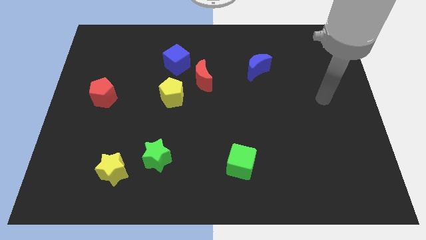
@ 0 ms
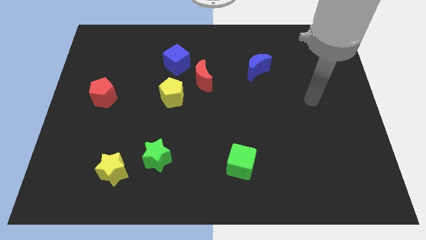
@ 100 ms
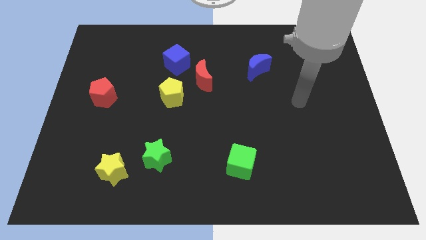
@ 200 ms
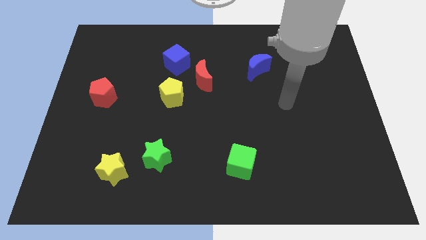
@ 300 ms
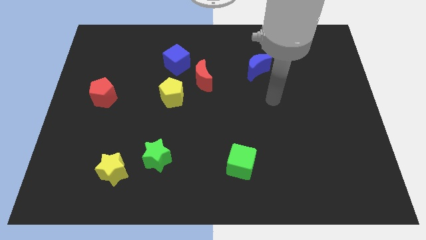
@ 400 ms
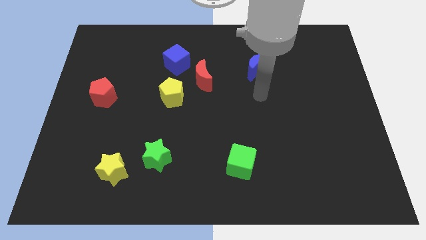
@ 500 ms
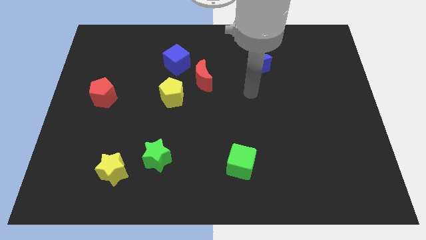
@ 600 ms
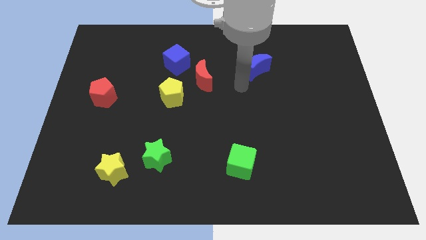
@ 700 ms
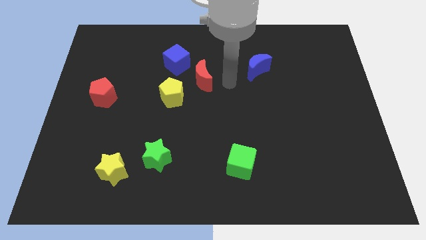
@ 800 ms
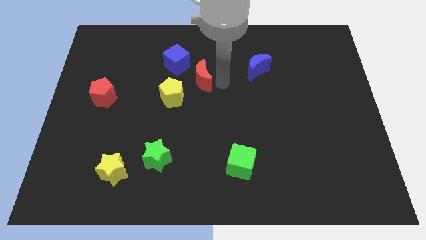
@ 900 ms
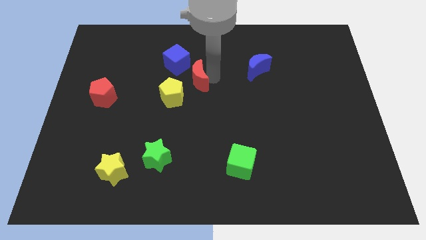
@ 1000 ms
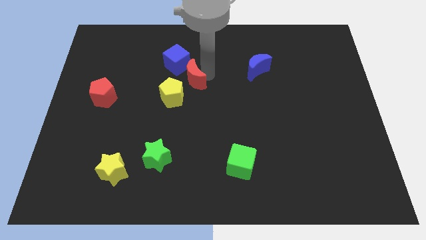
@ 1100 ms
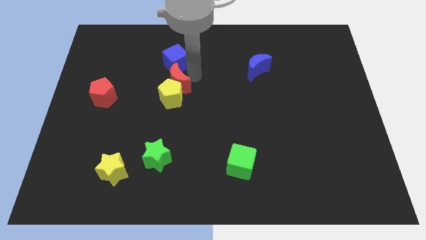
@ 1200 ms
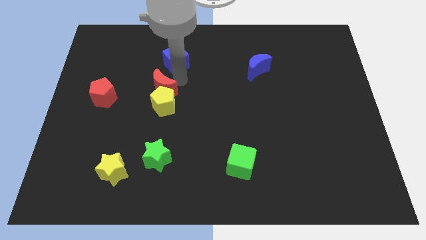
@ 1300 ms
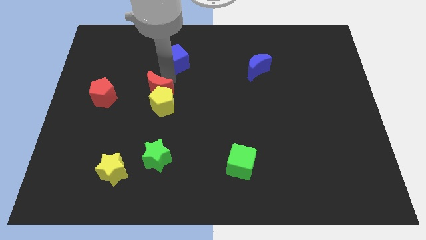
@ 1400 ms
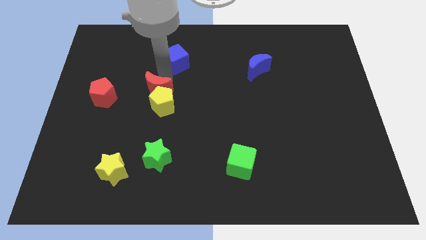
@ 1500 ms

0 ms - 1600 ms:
pull the blue cube apart from the red moon

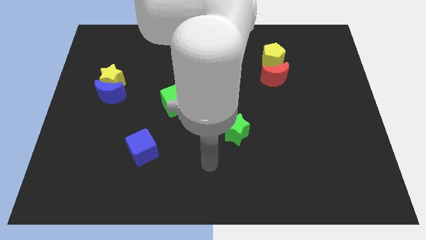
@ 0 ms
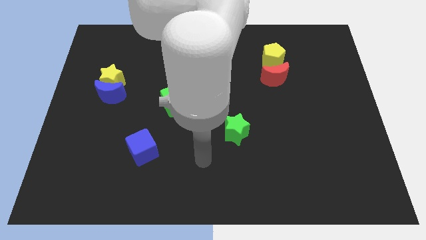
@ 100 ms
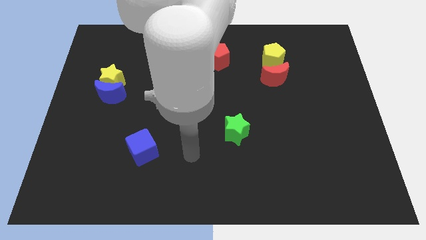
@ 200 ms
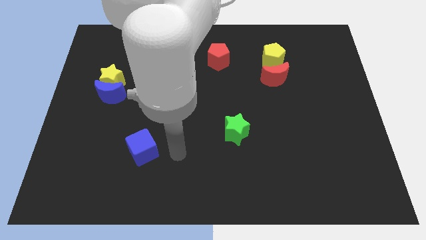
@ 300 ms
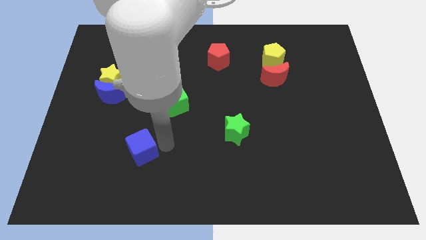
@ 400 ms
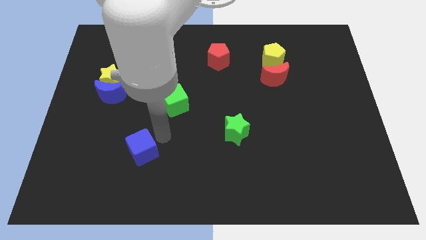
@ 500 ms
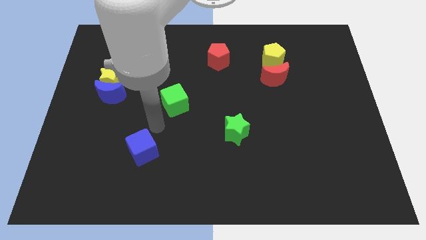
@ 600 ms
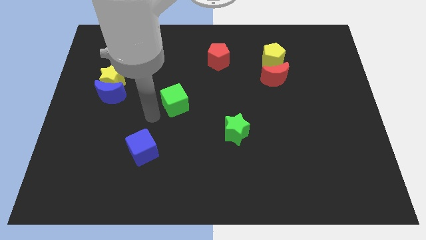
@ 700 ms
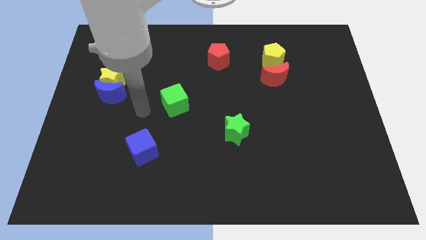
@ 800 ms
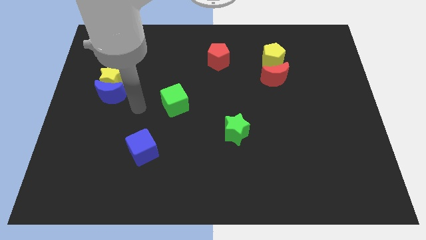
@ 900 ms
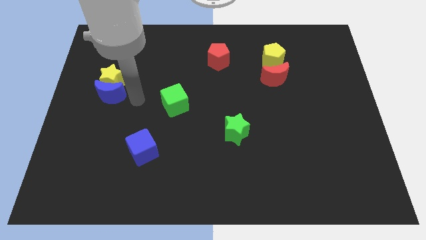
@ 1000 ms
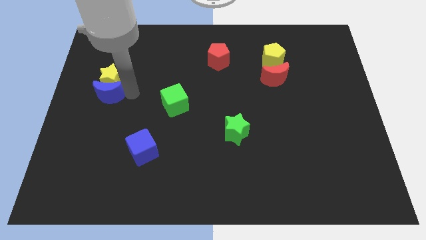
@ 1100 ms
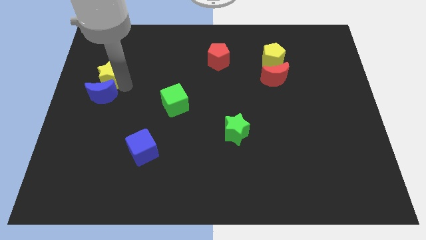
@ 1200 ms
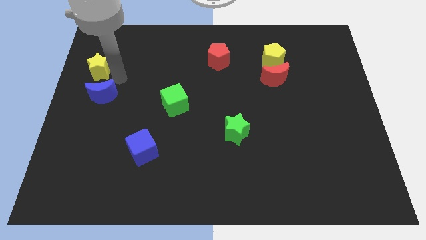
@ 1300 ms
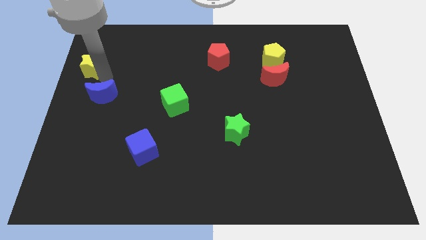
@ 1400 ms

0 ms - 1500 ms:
separate the blue moon from the yellow star

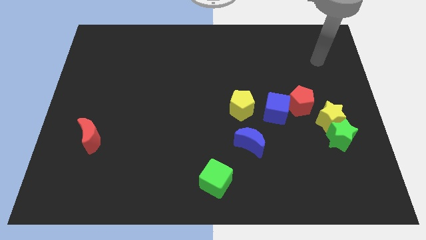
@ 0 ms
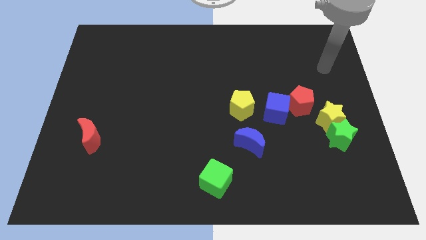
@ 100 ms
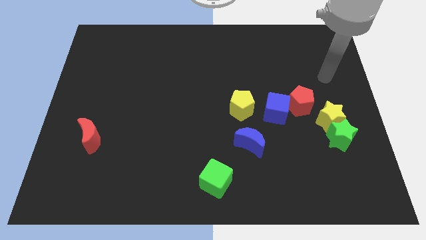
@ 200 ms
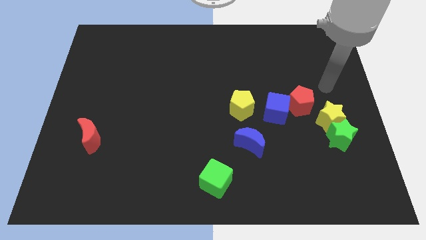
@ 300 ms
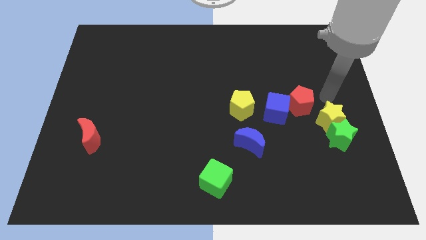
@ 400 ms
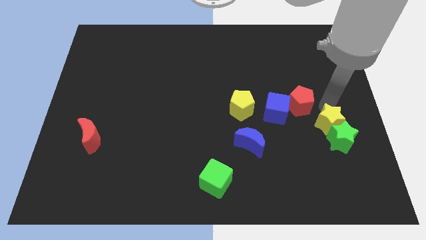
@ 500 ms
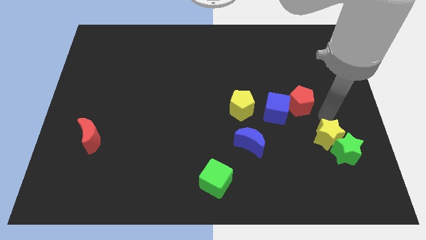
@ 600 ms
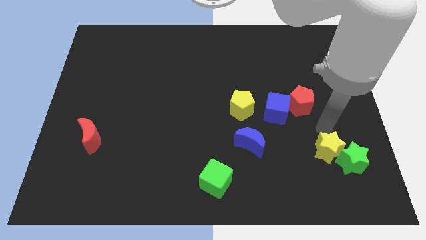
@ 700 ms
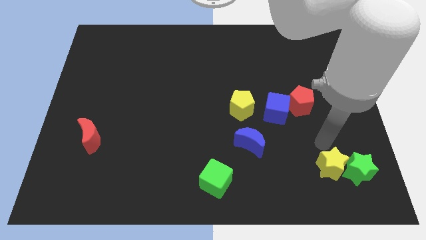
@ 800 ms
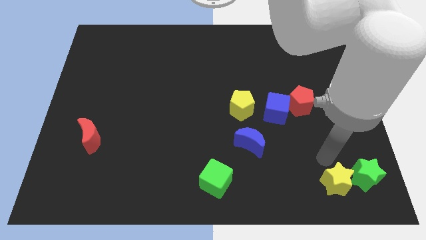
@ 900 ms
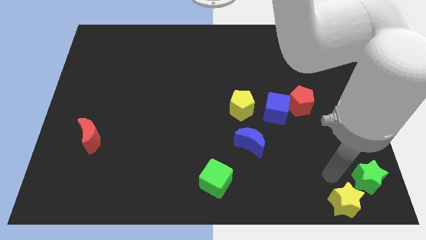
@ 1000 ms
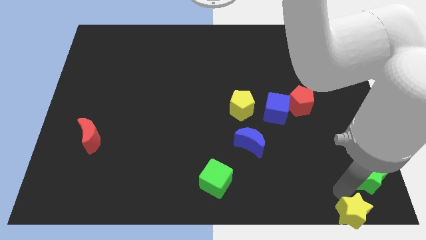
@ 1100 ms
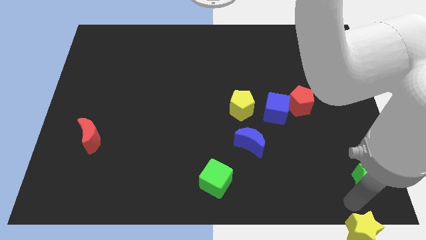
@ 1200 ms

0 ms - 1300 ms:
pull the green star apart from the yellow star

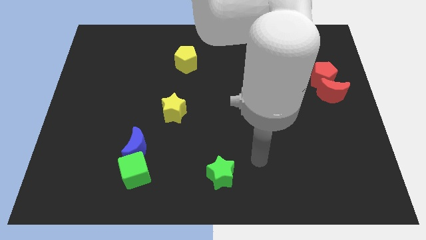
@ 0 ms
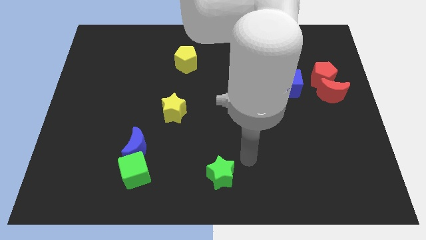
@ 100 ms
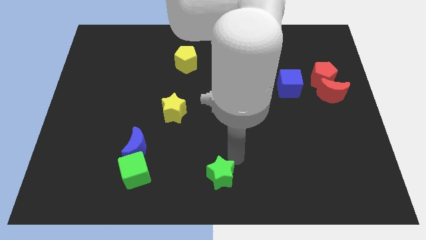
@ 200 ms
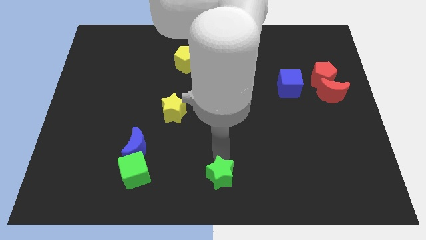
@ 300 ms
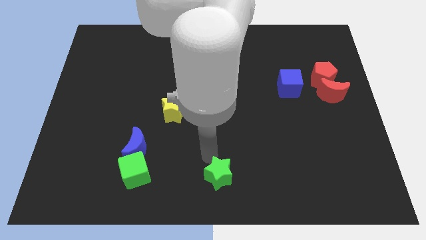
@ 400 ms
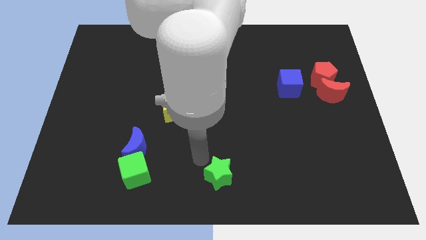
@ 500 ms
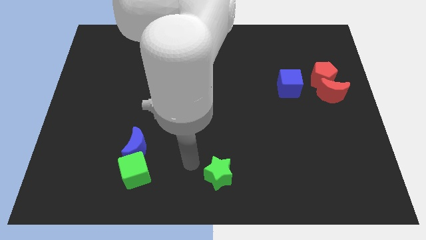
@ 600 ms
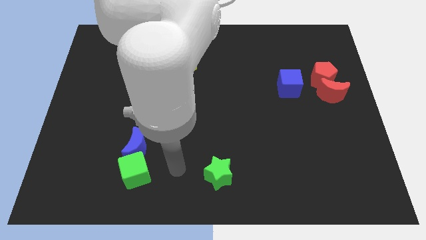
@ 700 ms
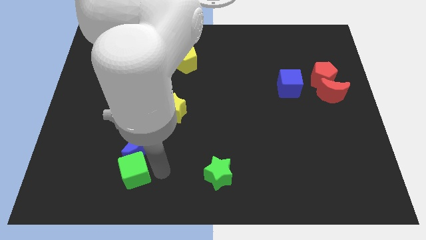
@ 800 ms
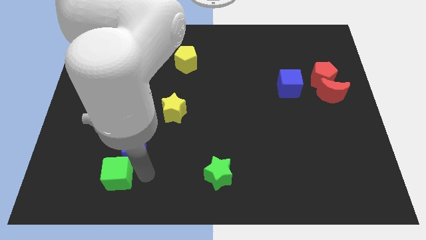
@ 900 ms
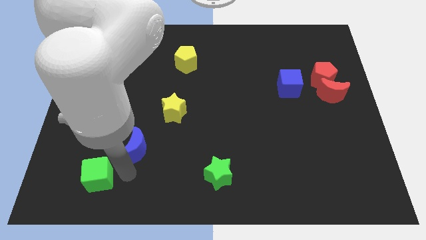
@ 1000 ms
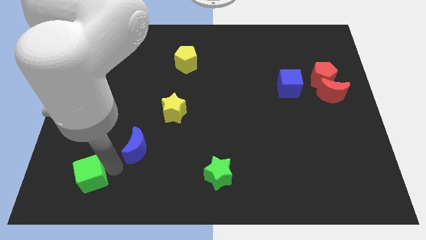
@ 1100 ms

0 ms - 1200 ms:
move the blue moon away from the green cube

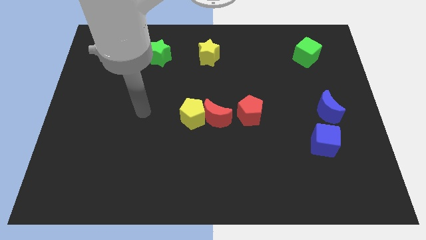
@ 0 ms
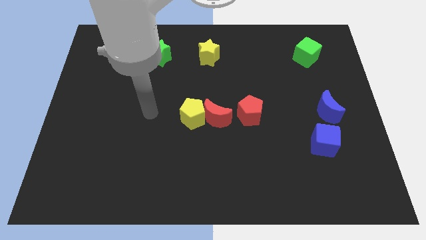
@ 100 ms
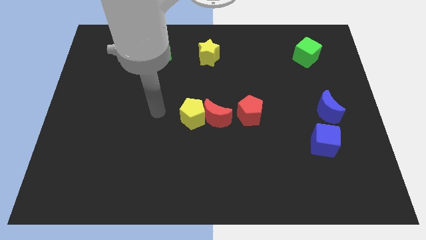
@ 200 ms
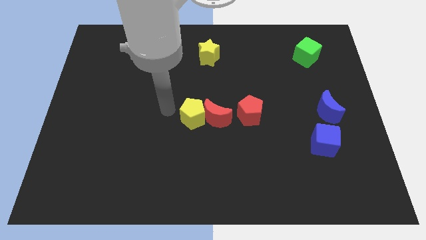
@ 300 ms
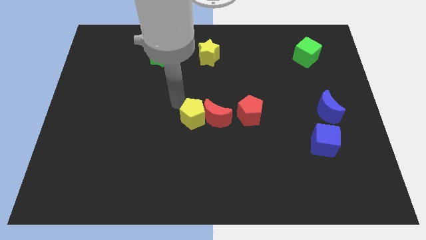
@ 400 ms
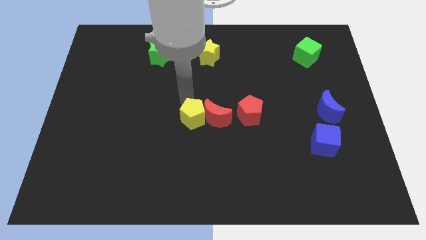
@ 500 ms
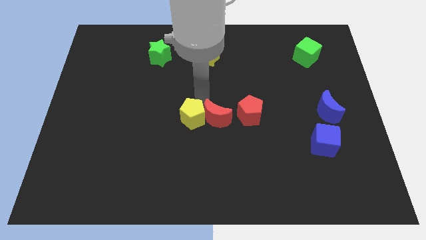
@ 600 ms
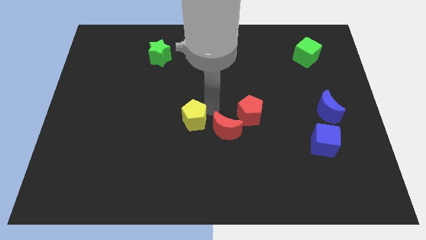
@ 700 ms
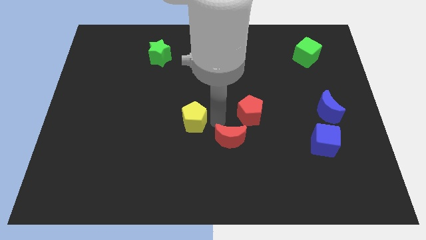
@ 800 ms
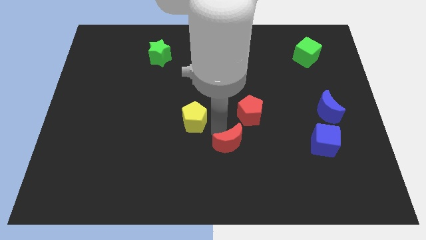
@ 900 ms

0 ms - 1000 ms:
separate the yellow pentagon from the red moon

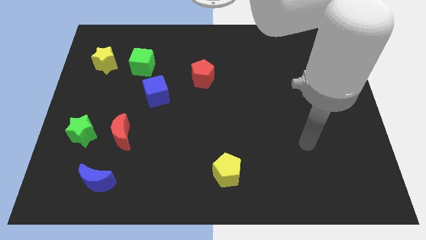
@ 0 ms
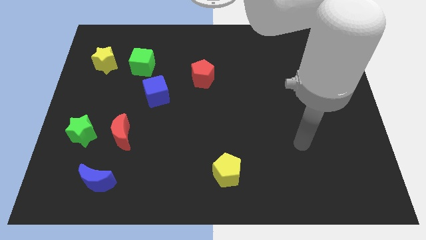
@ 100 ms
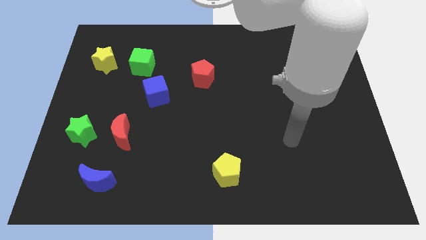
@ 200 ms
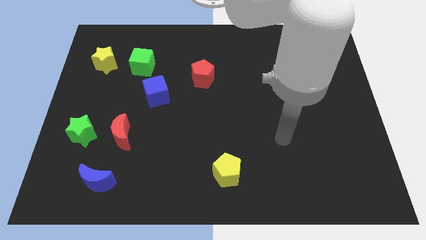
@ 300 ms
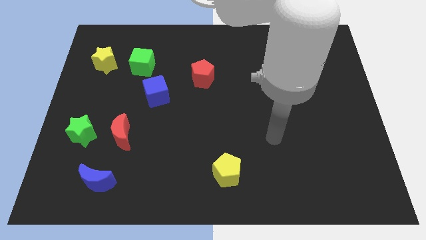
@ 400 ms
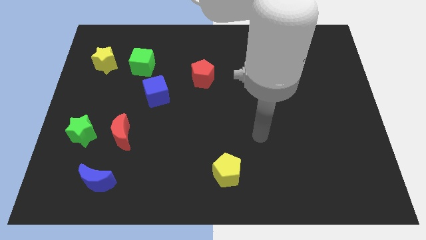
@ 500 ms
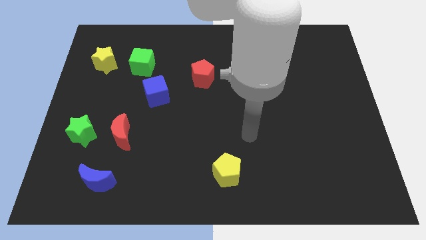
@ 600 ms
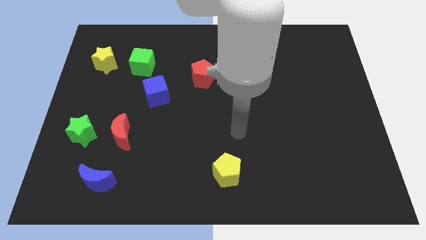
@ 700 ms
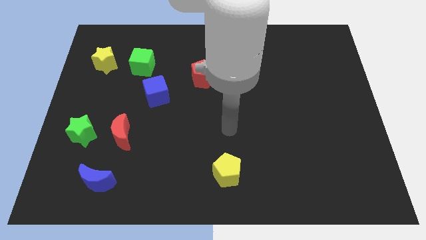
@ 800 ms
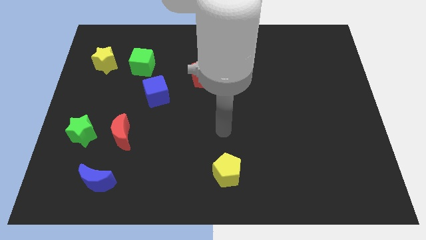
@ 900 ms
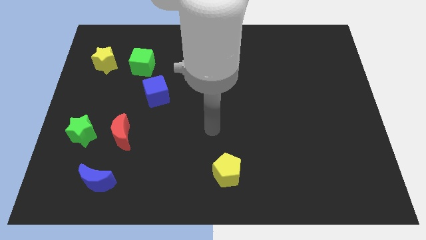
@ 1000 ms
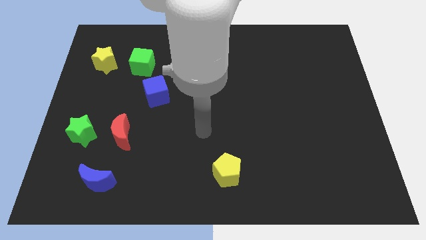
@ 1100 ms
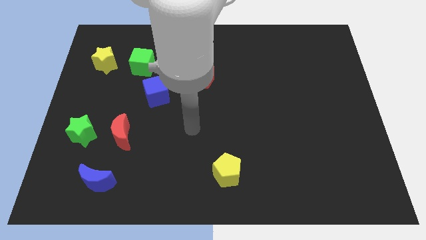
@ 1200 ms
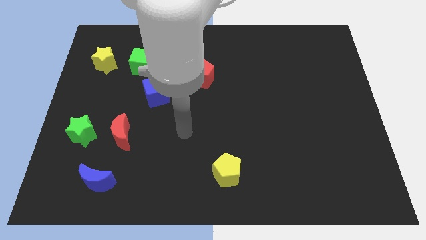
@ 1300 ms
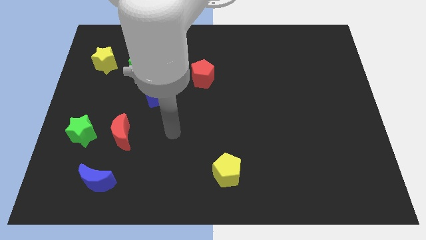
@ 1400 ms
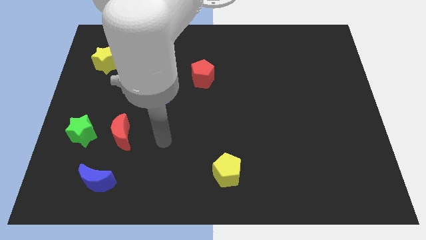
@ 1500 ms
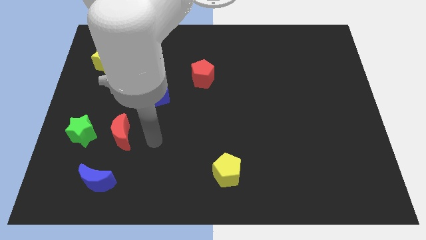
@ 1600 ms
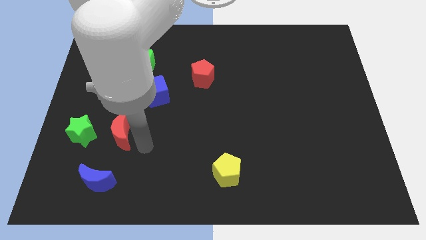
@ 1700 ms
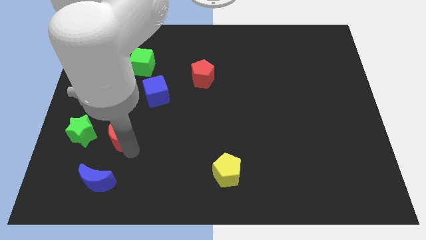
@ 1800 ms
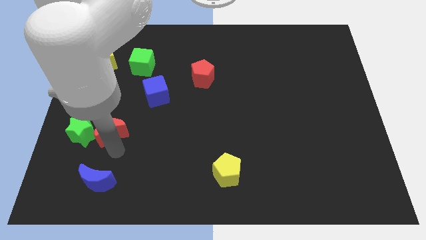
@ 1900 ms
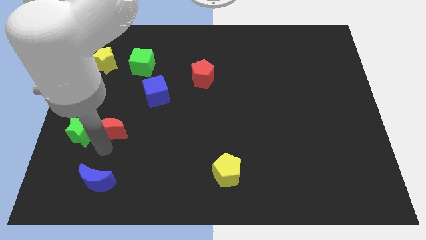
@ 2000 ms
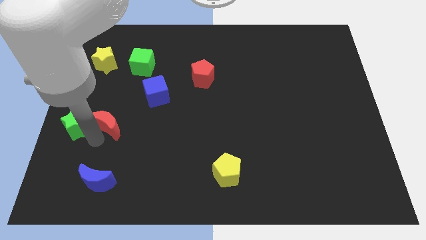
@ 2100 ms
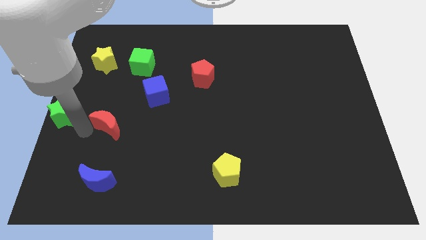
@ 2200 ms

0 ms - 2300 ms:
pull the red moon apart from the green star

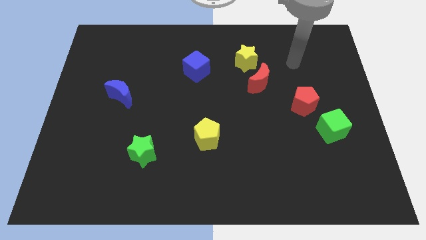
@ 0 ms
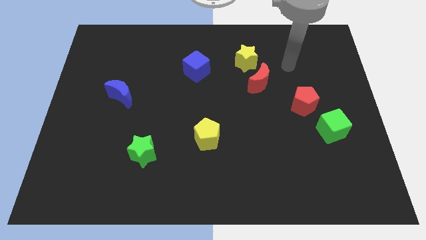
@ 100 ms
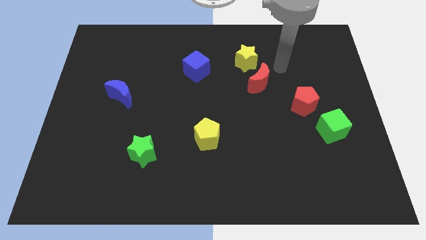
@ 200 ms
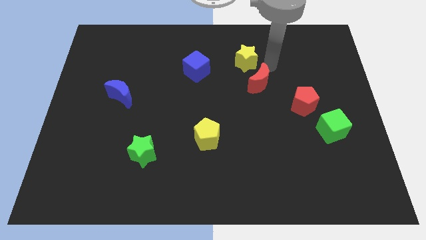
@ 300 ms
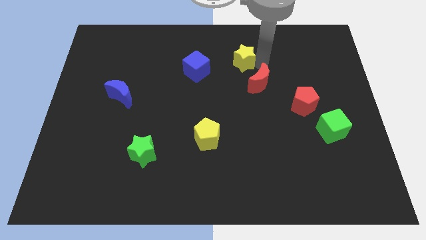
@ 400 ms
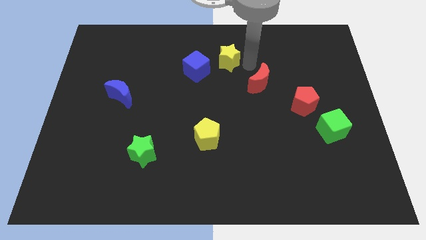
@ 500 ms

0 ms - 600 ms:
pull the red moon apart from the yellow star
